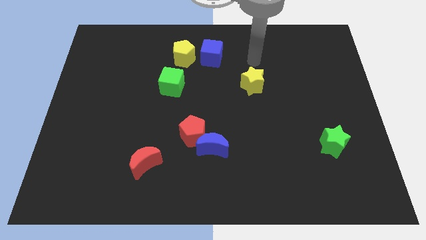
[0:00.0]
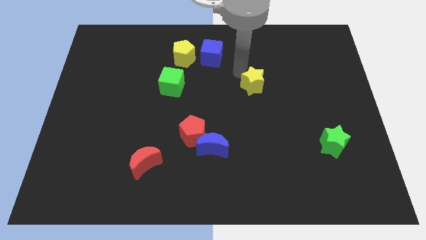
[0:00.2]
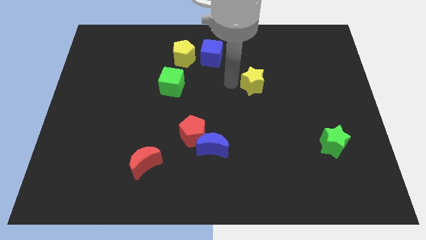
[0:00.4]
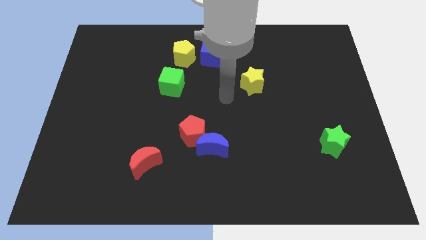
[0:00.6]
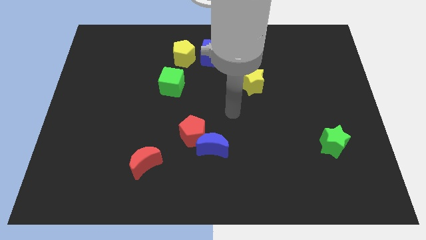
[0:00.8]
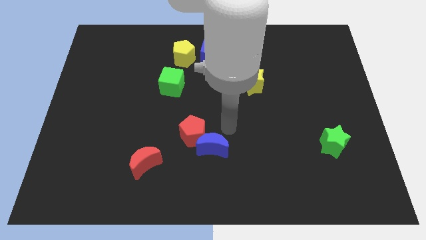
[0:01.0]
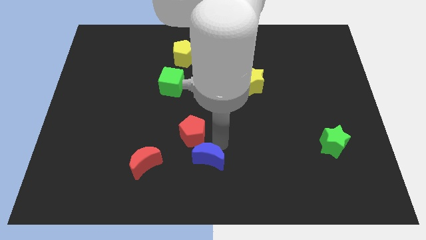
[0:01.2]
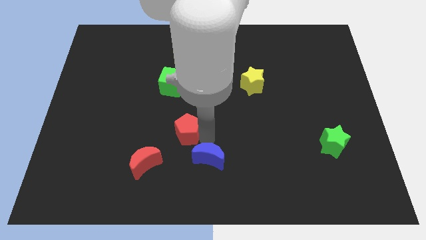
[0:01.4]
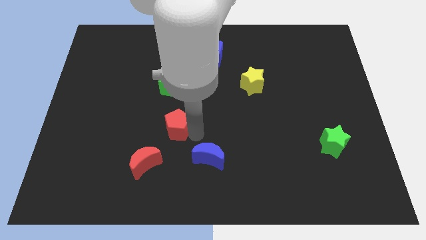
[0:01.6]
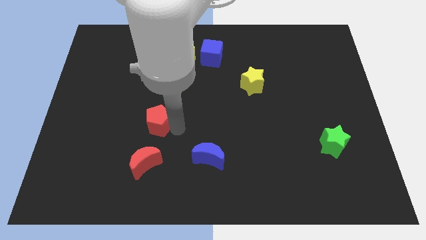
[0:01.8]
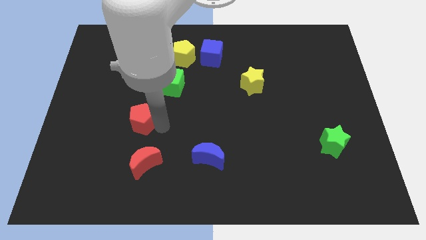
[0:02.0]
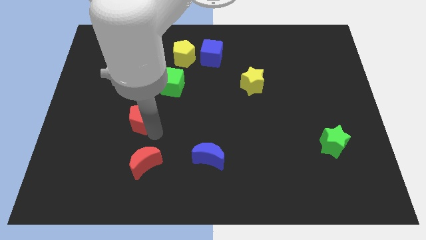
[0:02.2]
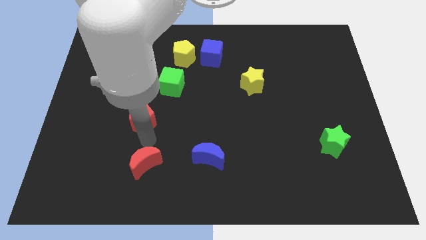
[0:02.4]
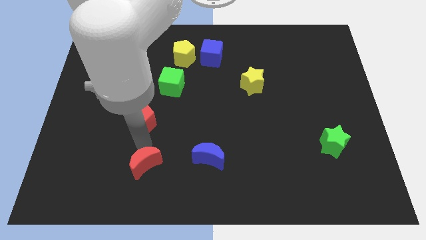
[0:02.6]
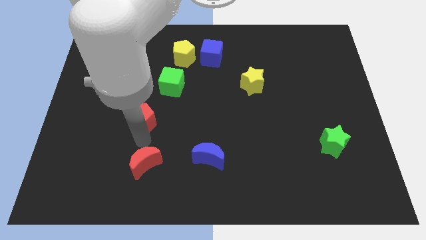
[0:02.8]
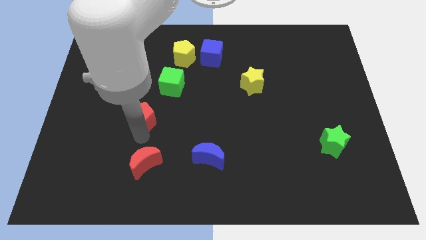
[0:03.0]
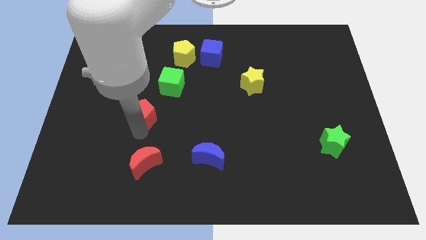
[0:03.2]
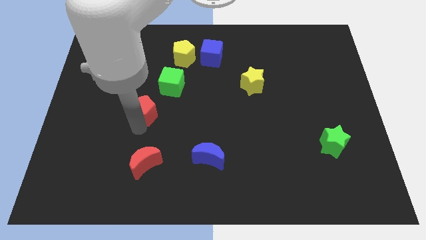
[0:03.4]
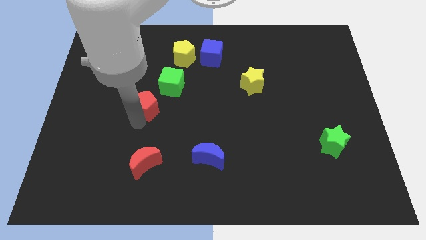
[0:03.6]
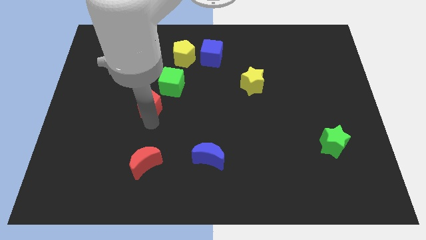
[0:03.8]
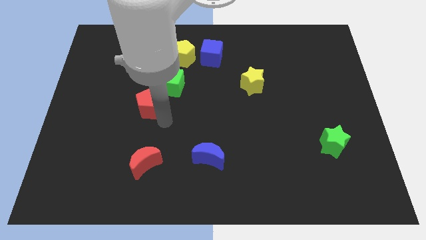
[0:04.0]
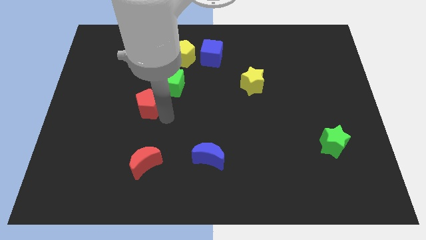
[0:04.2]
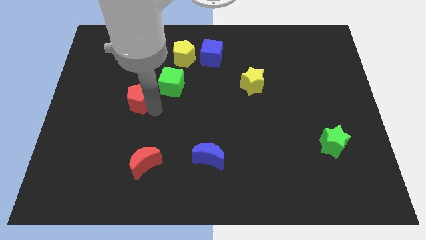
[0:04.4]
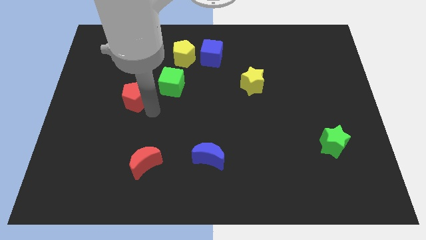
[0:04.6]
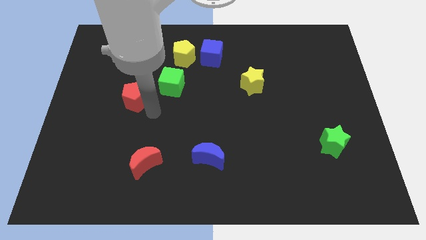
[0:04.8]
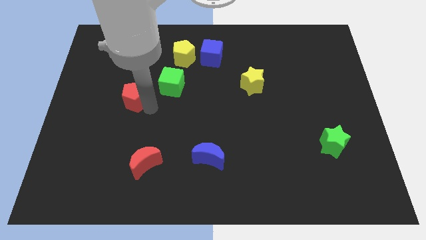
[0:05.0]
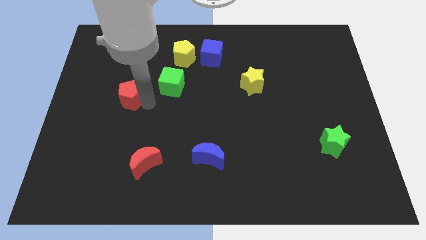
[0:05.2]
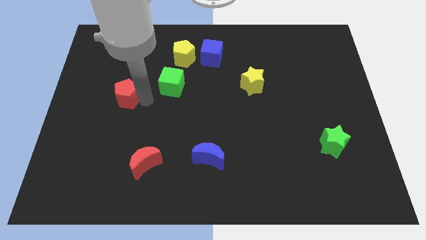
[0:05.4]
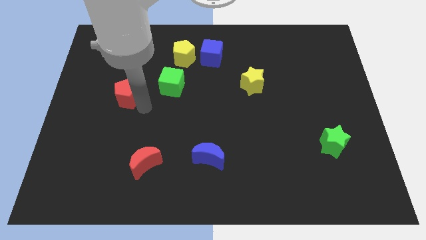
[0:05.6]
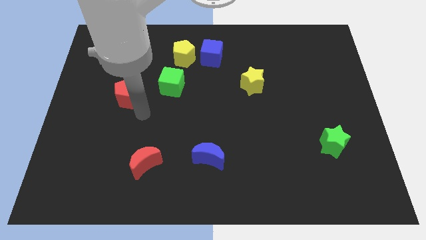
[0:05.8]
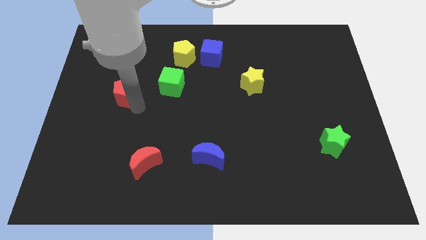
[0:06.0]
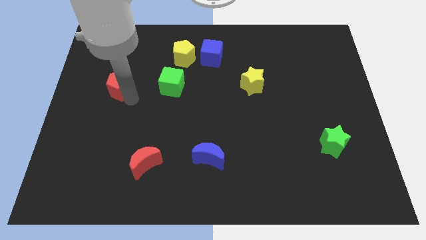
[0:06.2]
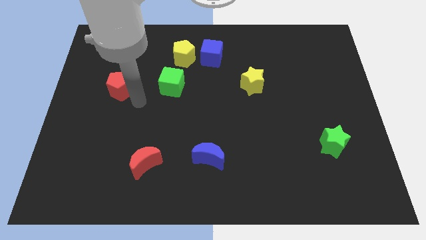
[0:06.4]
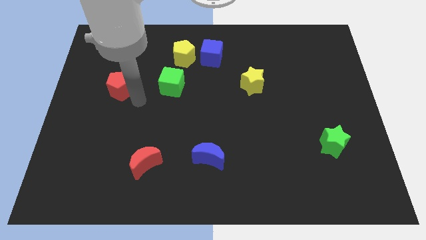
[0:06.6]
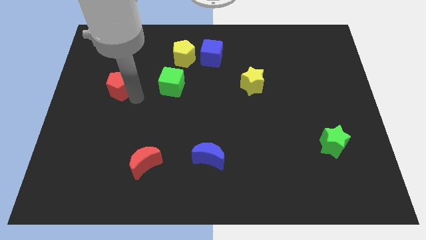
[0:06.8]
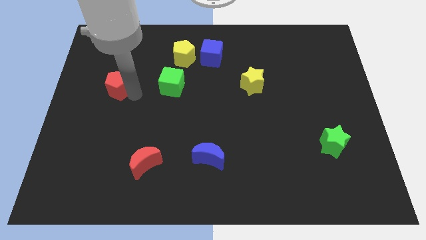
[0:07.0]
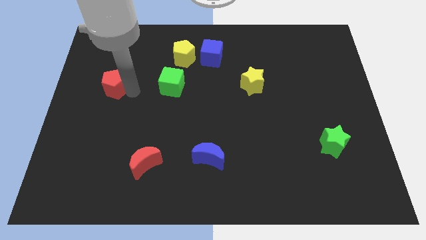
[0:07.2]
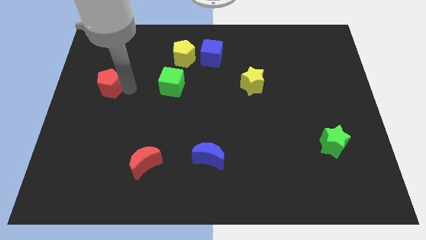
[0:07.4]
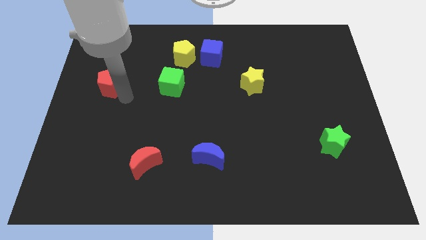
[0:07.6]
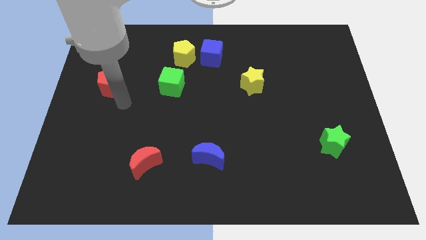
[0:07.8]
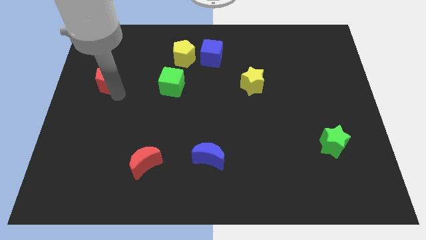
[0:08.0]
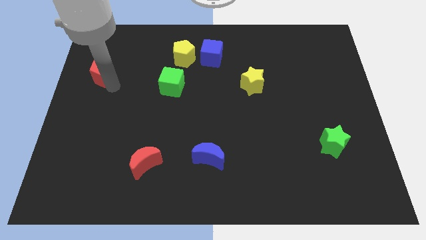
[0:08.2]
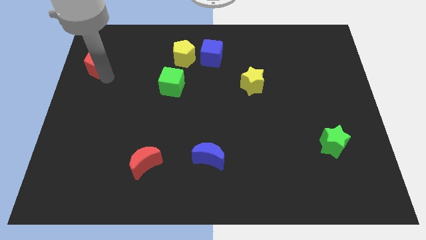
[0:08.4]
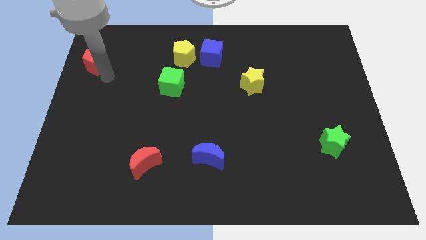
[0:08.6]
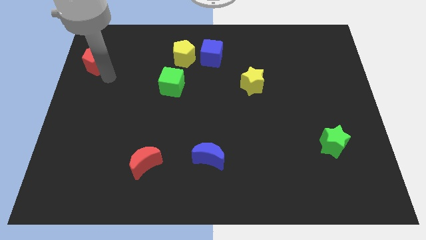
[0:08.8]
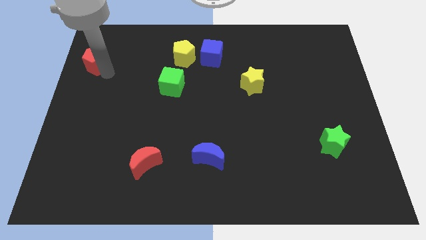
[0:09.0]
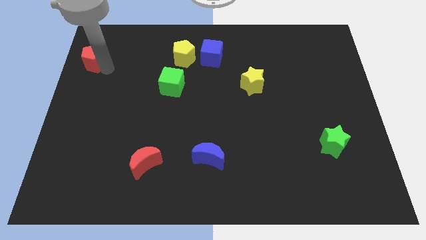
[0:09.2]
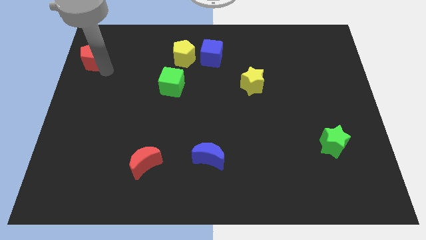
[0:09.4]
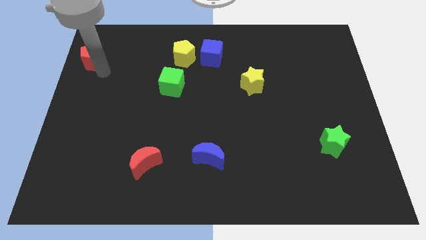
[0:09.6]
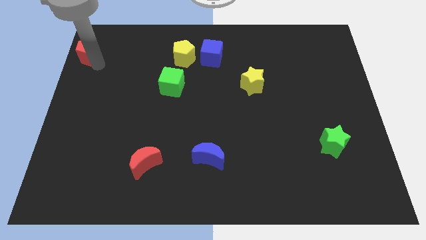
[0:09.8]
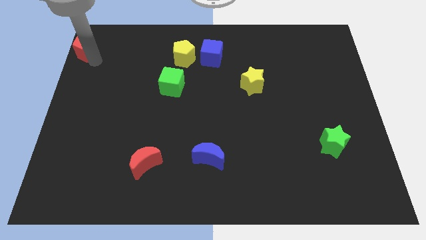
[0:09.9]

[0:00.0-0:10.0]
put the red pentagon to the upper left corner
